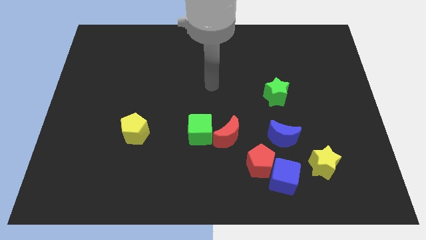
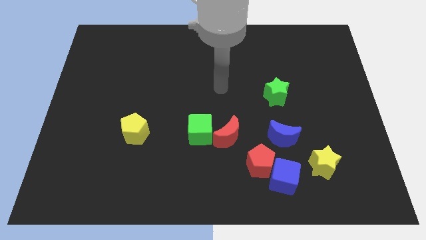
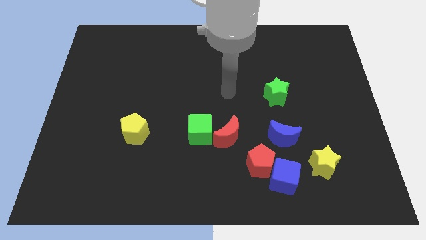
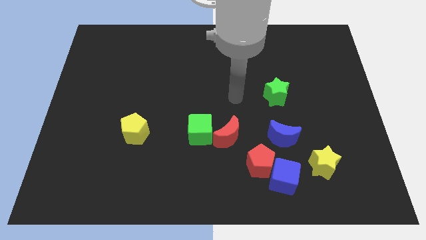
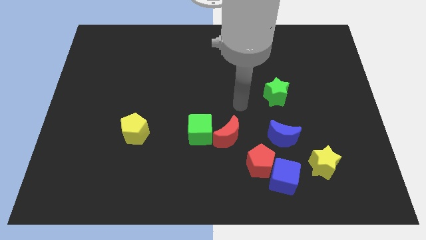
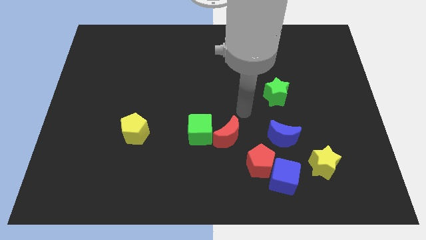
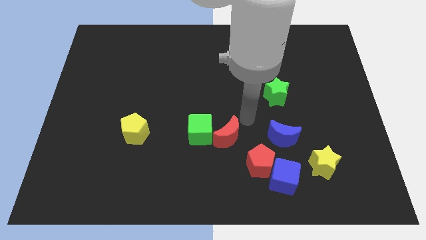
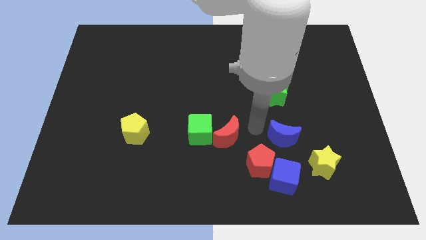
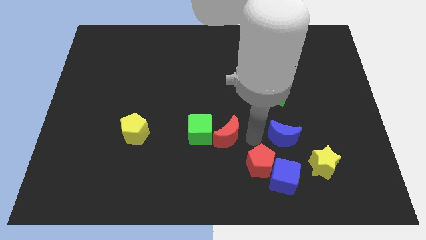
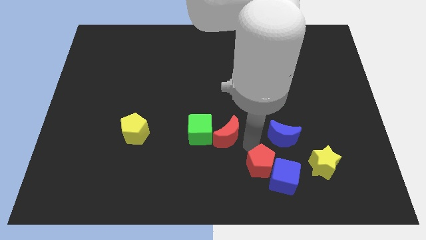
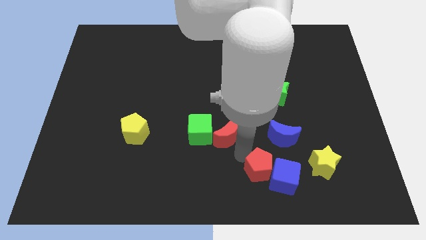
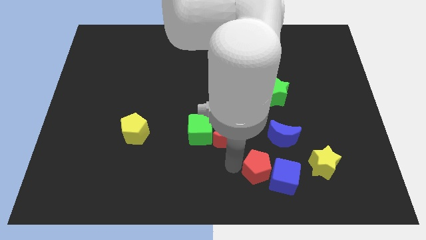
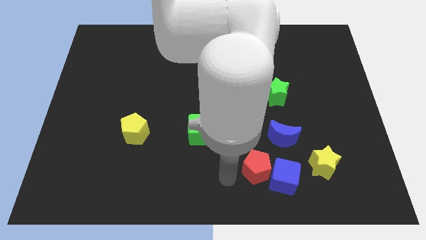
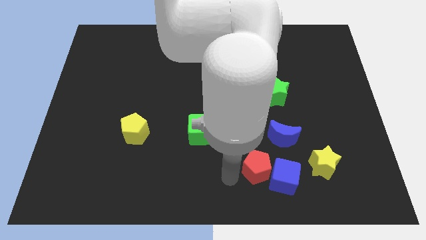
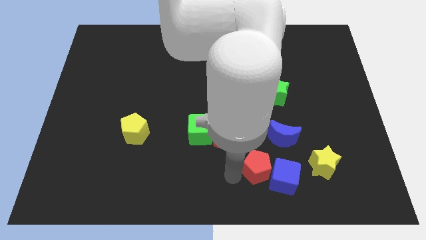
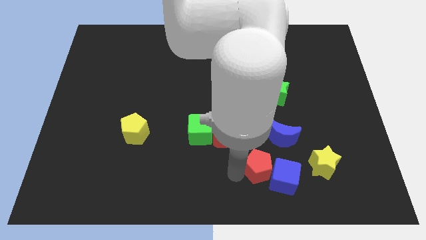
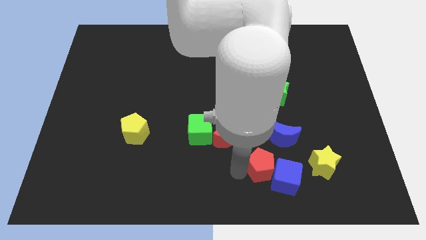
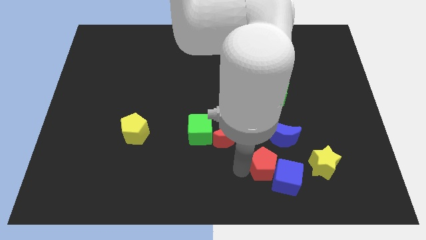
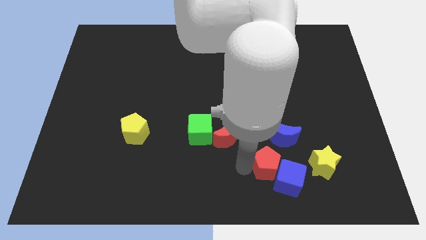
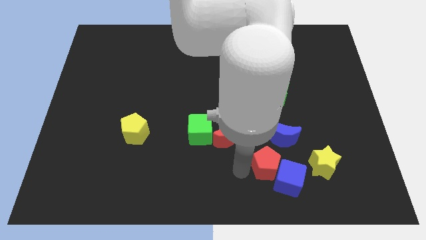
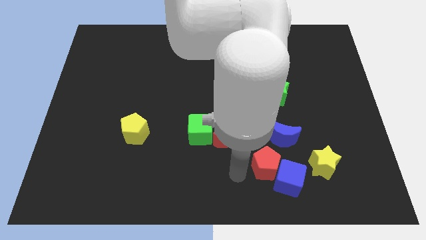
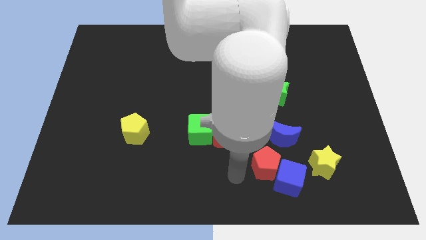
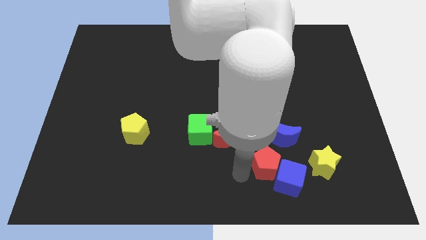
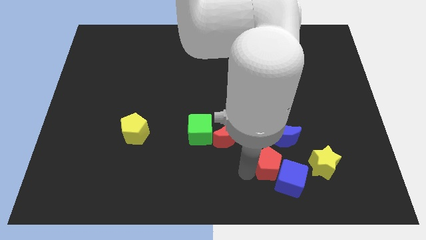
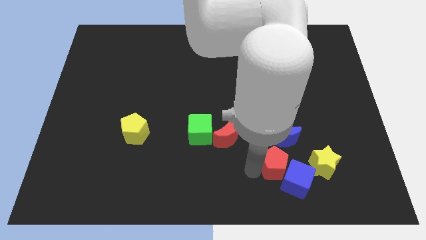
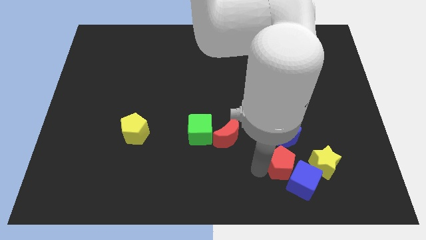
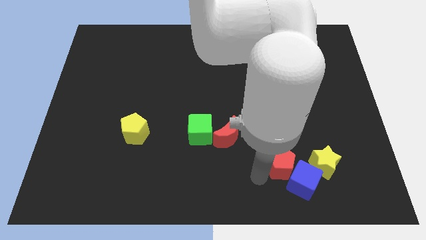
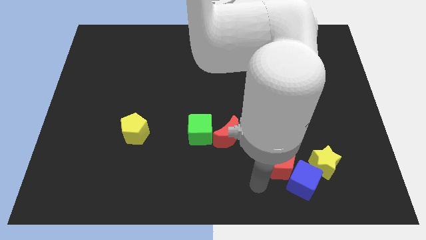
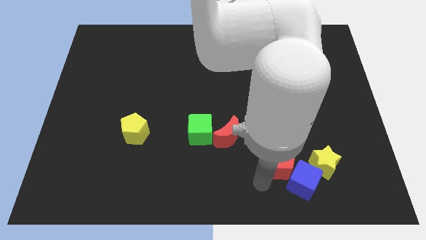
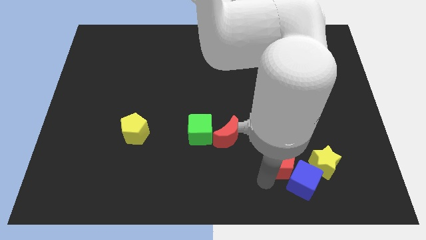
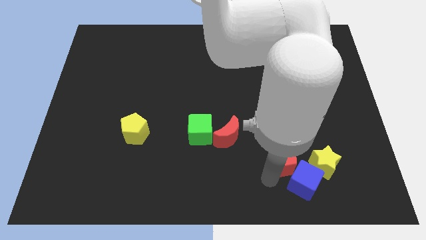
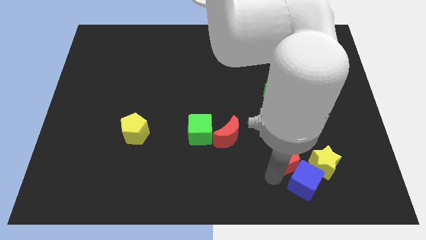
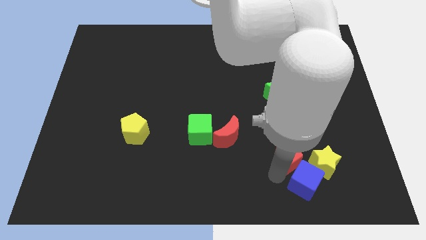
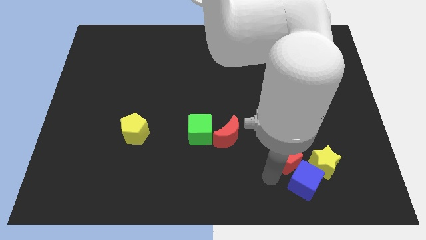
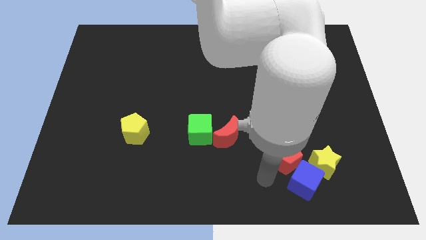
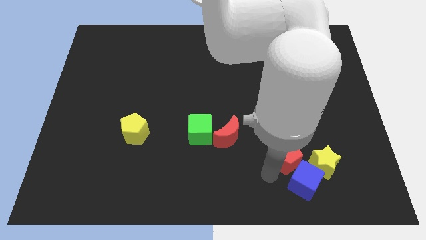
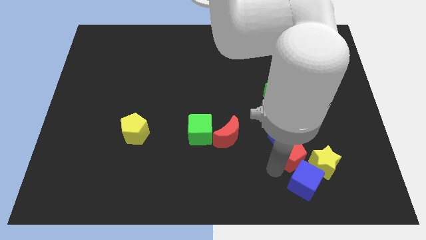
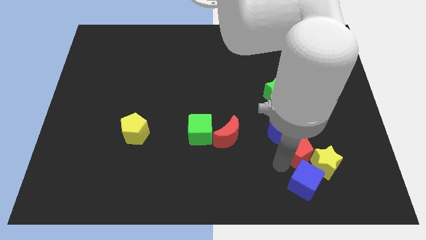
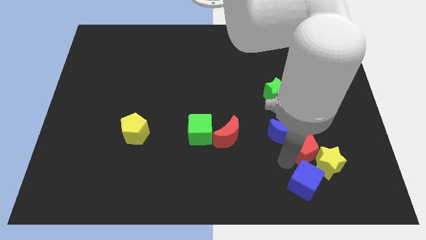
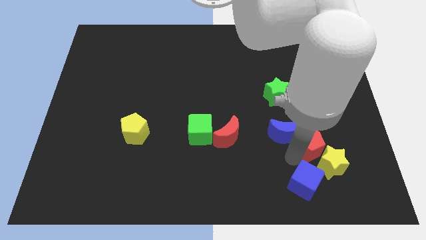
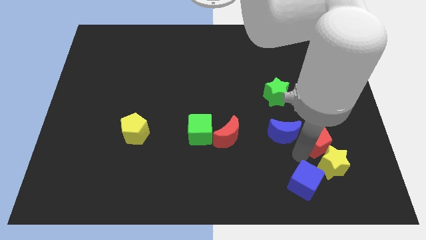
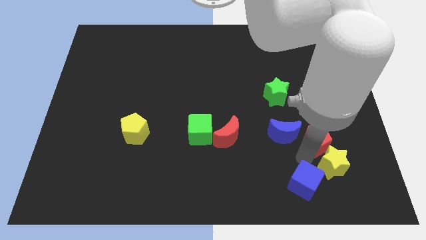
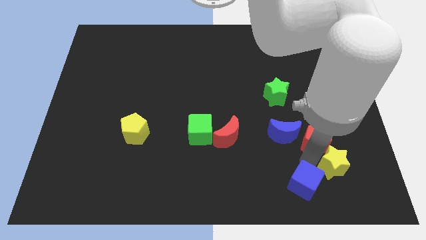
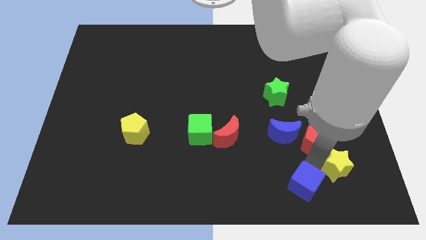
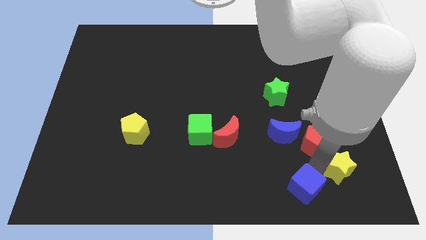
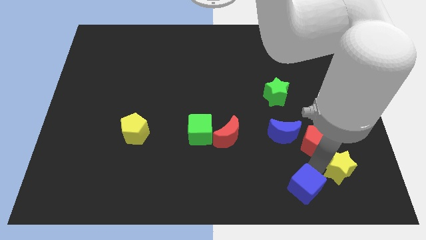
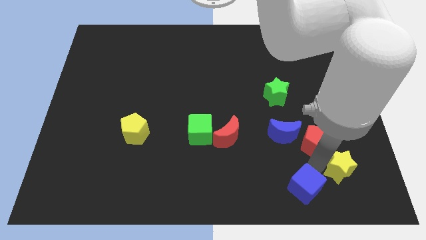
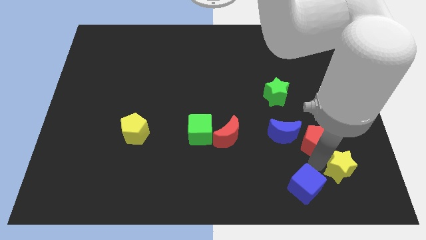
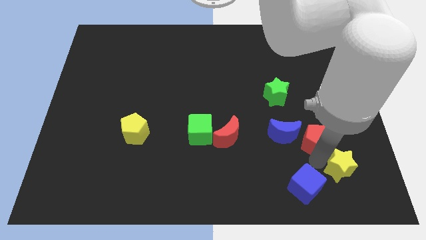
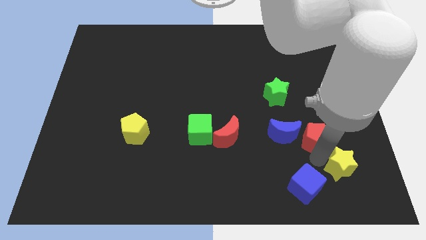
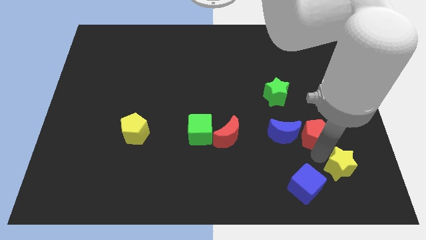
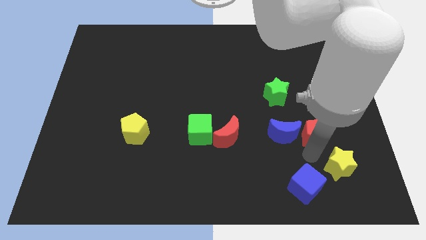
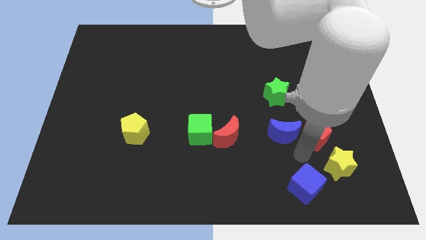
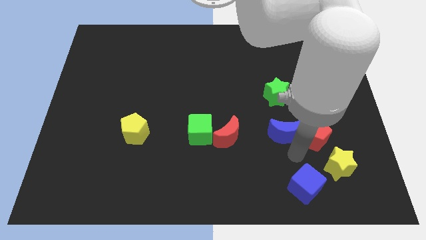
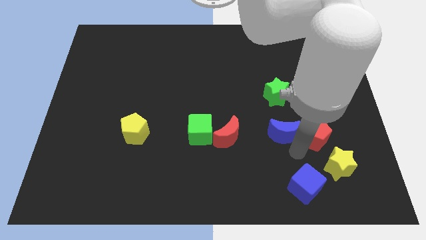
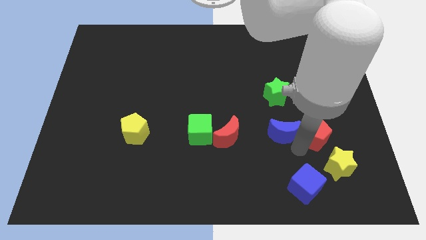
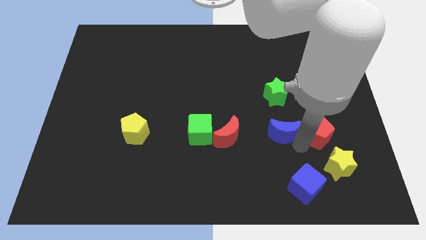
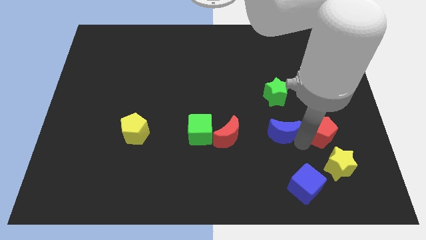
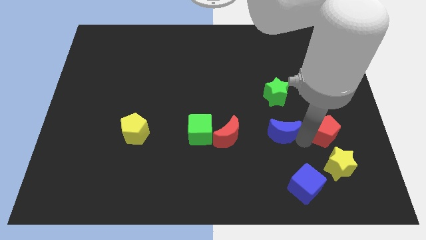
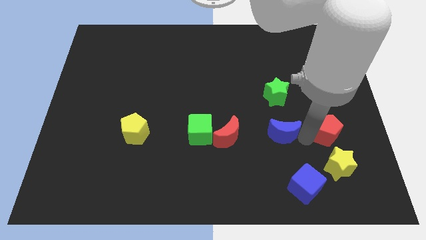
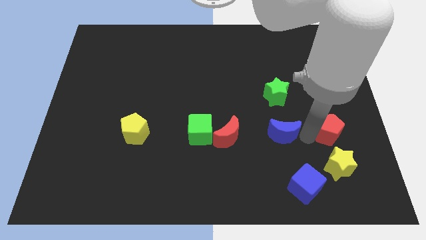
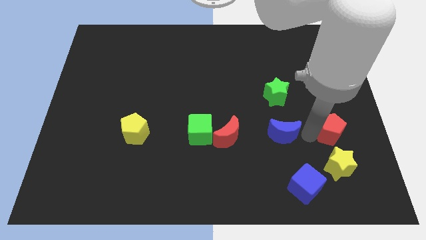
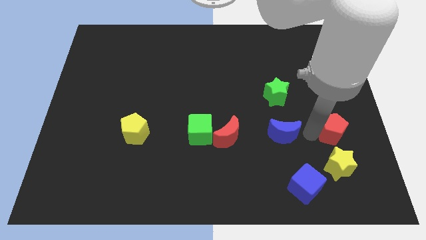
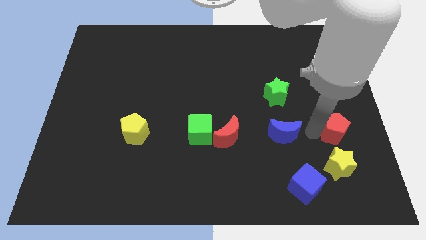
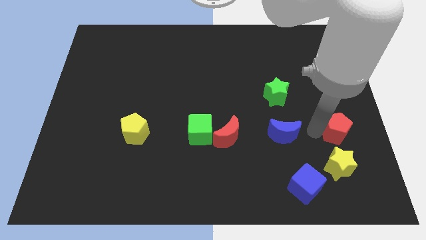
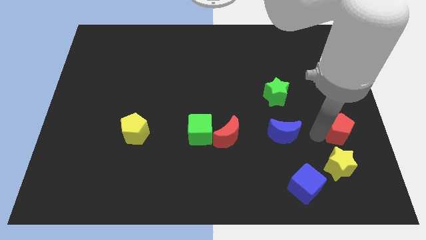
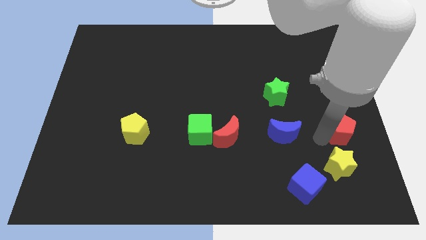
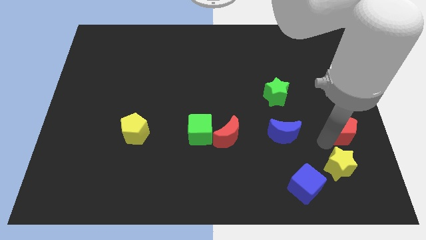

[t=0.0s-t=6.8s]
push the red pentagon to the center right
